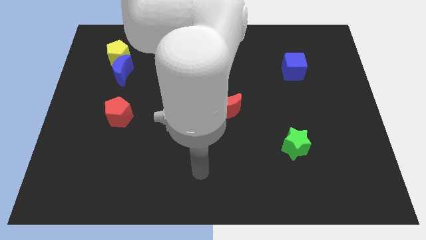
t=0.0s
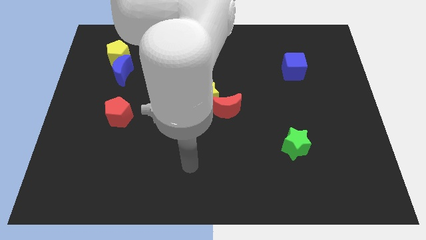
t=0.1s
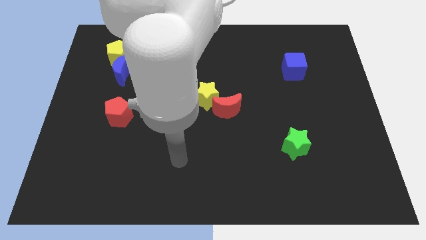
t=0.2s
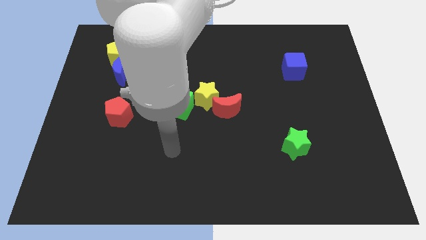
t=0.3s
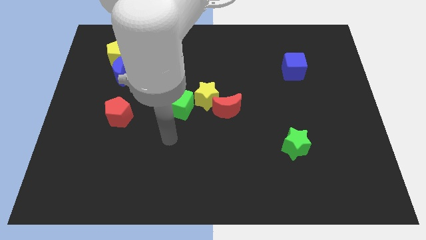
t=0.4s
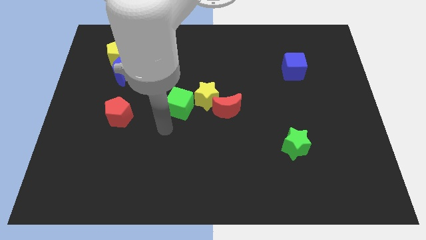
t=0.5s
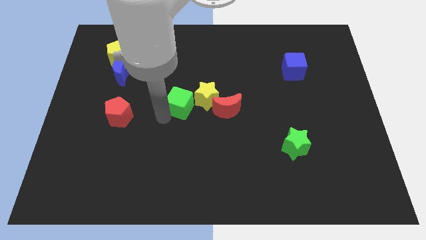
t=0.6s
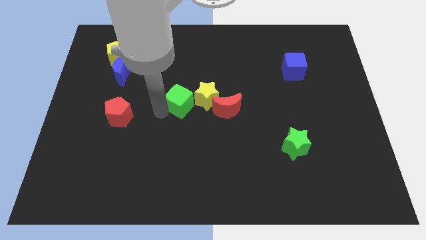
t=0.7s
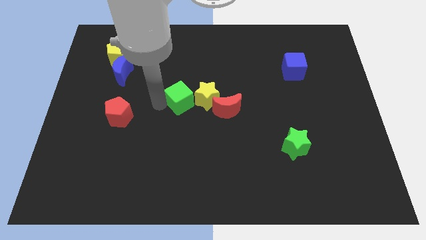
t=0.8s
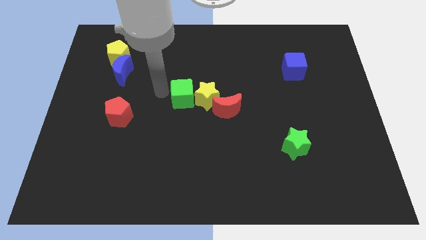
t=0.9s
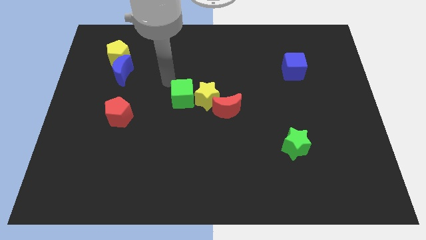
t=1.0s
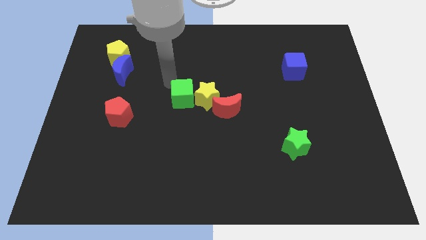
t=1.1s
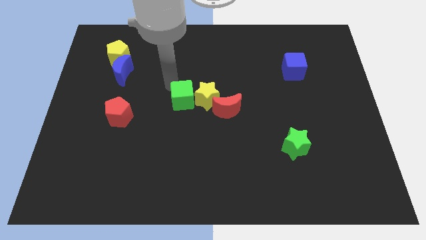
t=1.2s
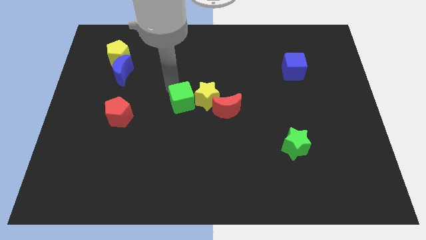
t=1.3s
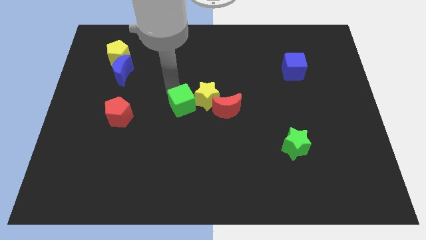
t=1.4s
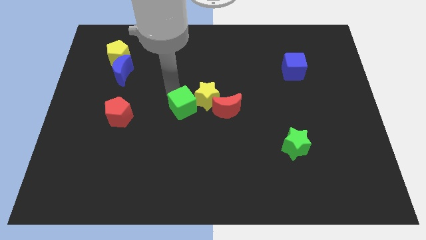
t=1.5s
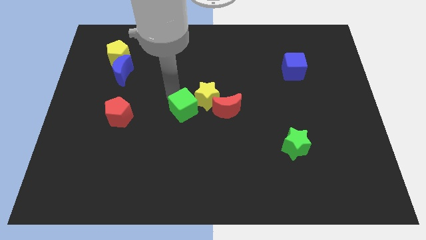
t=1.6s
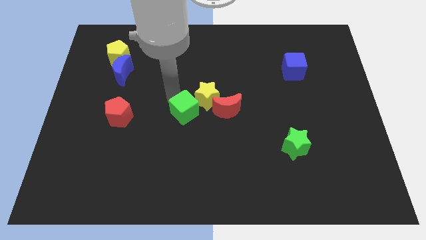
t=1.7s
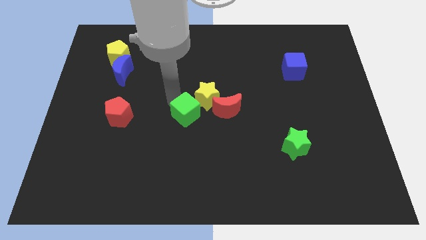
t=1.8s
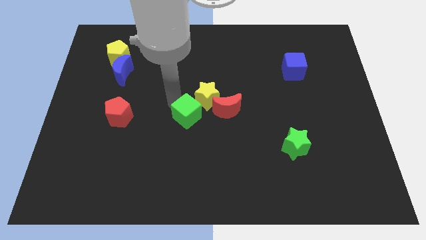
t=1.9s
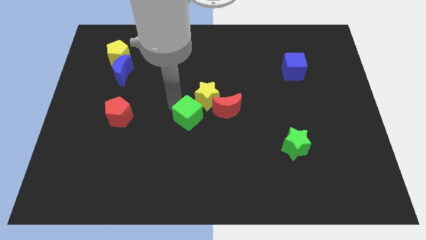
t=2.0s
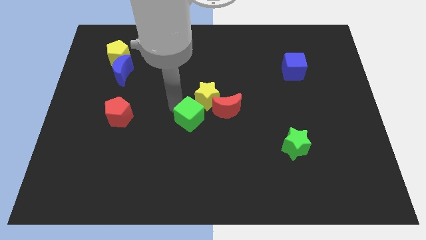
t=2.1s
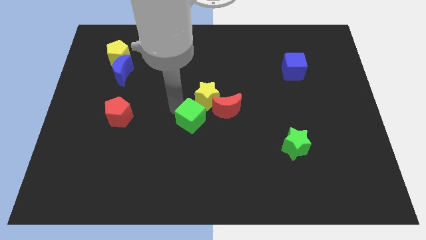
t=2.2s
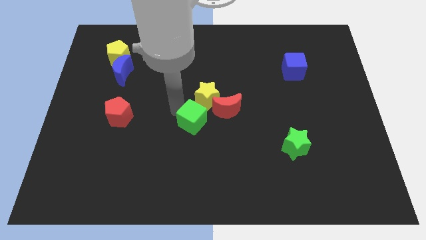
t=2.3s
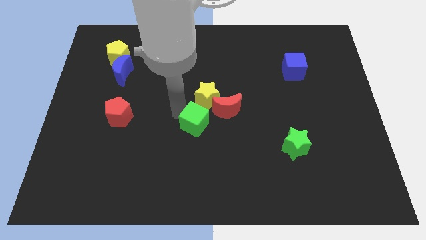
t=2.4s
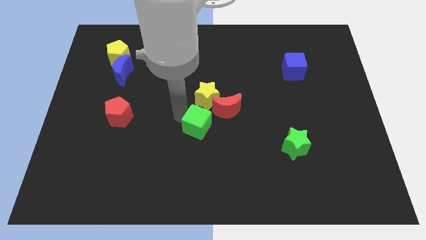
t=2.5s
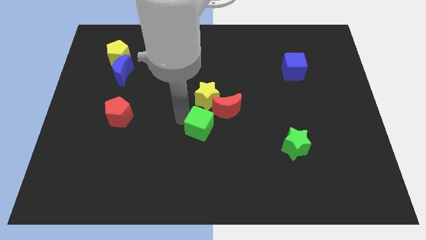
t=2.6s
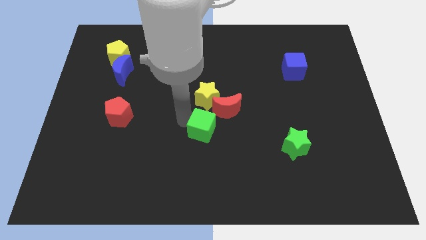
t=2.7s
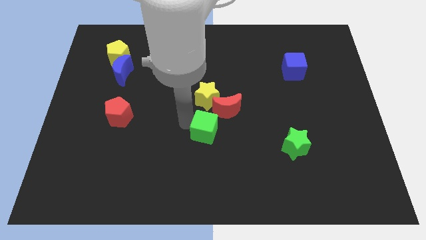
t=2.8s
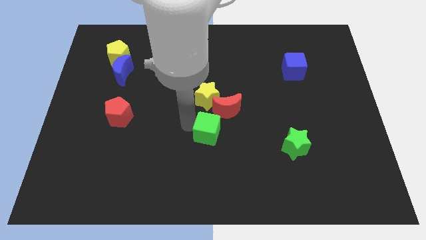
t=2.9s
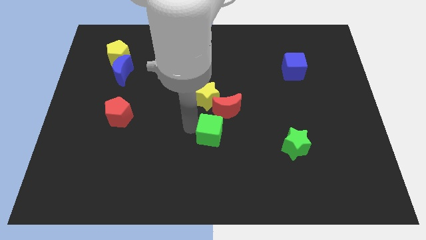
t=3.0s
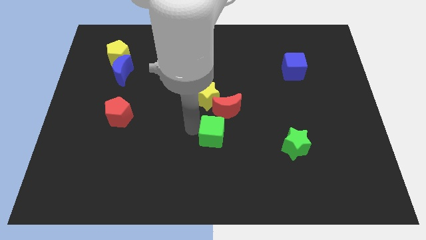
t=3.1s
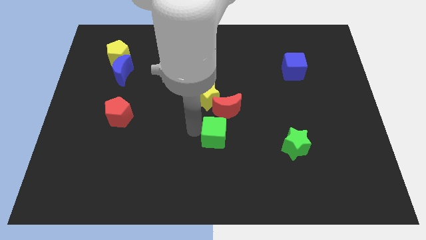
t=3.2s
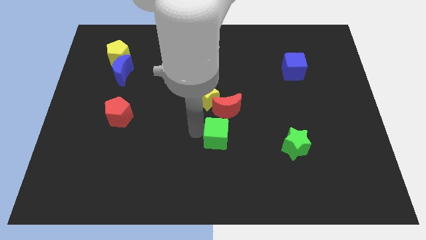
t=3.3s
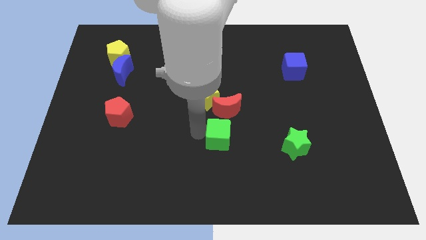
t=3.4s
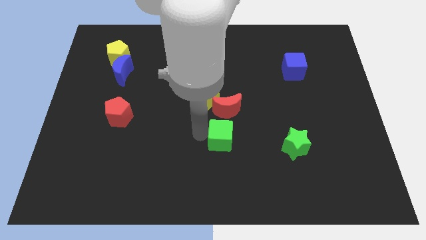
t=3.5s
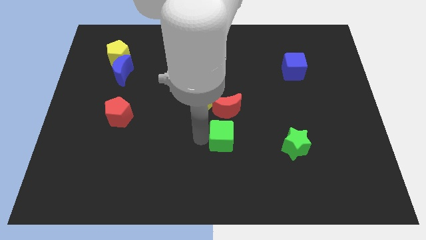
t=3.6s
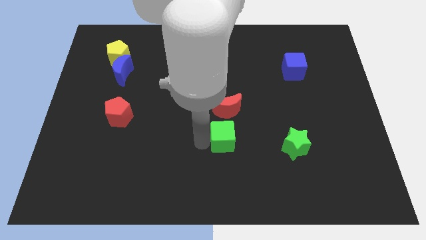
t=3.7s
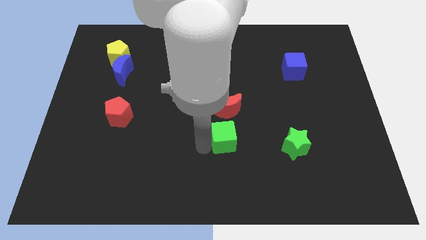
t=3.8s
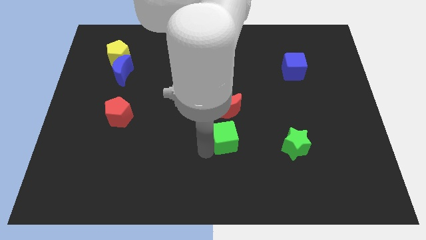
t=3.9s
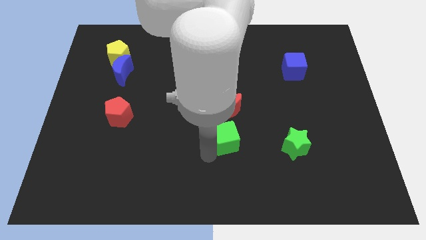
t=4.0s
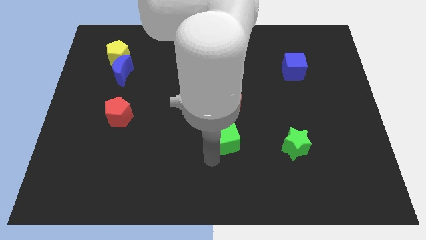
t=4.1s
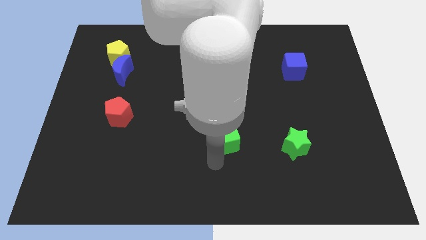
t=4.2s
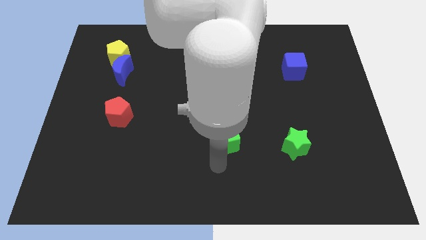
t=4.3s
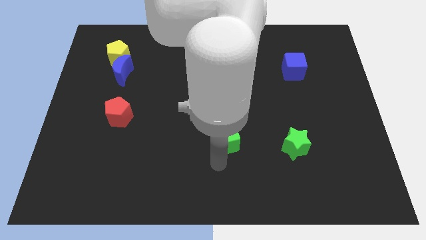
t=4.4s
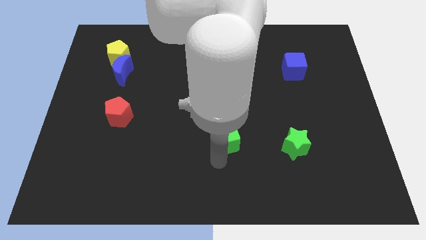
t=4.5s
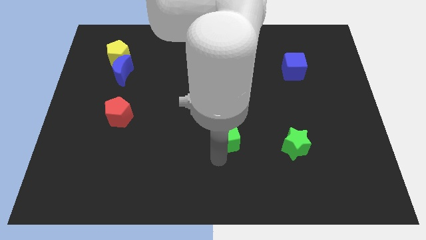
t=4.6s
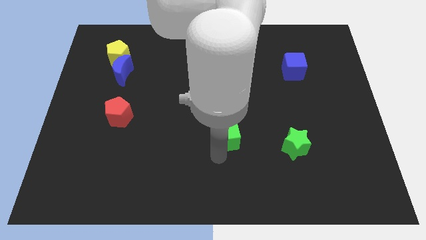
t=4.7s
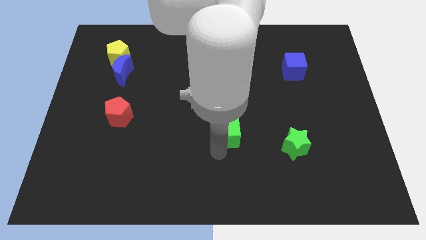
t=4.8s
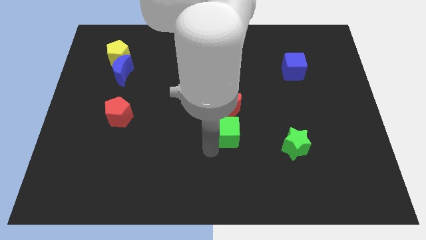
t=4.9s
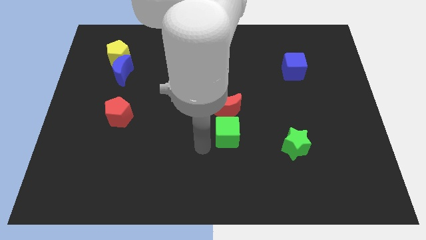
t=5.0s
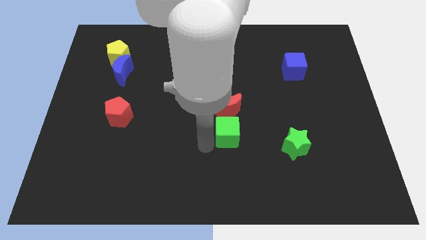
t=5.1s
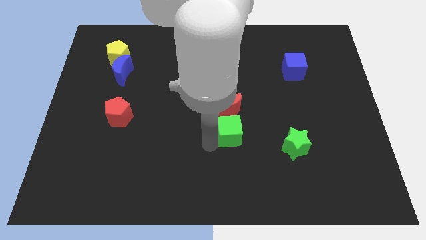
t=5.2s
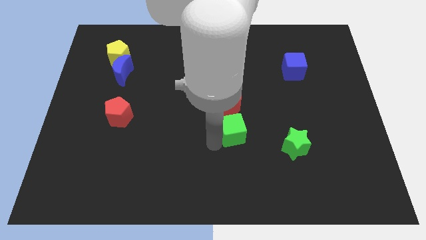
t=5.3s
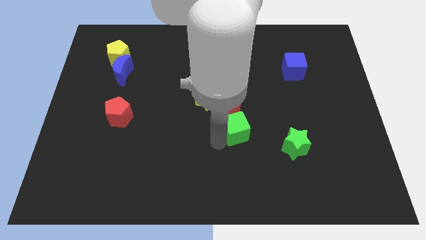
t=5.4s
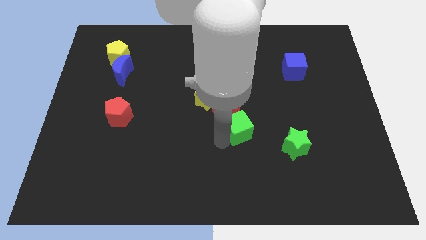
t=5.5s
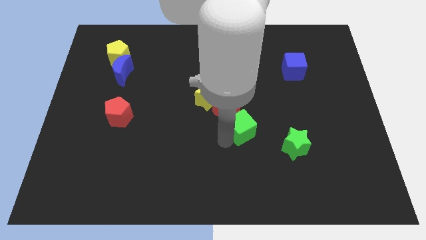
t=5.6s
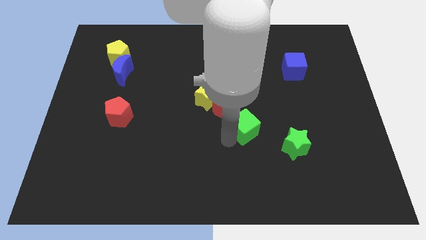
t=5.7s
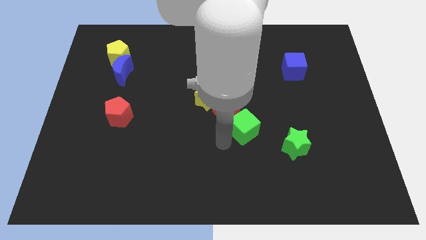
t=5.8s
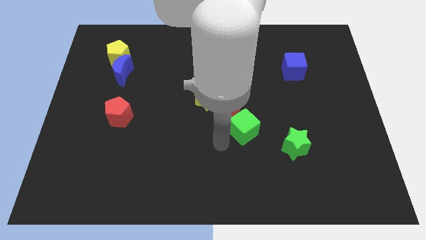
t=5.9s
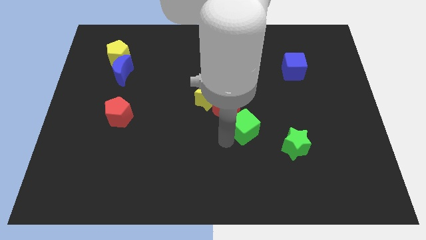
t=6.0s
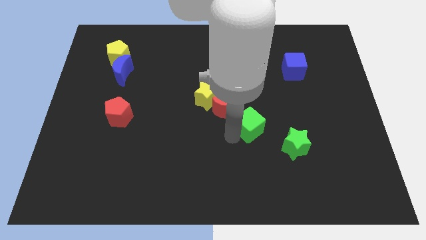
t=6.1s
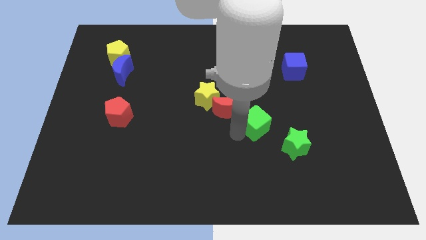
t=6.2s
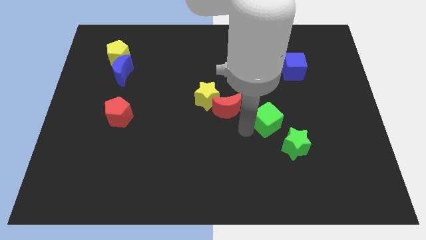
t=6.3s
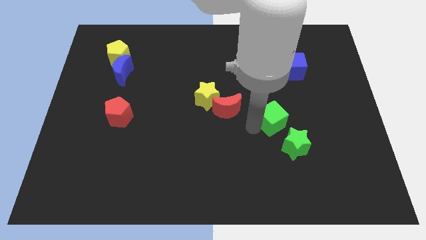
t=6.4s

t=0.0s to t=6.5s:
push the green cube right

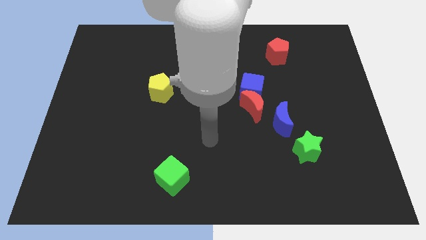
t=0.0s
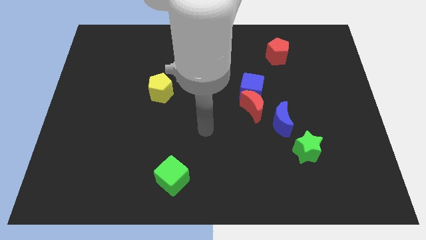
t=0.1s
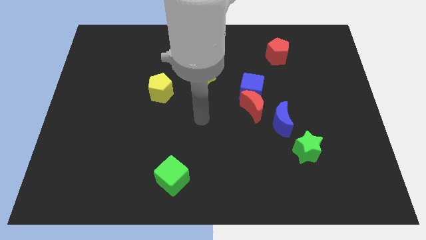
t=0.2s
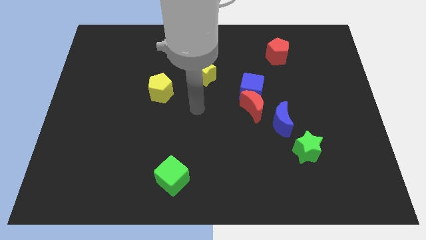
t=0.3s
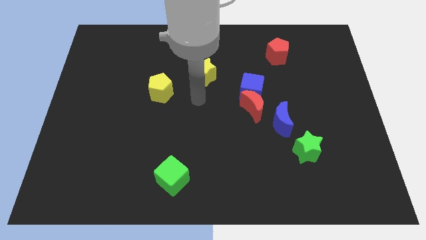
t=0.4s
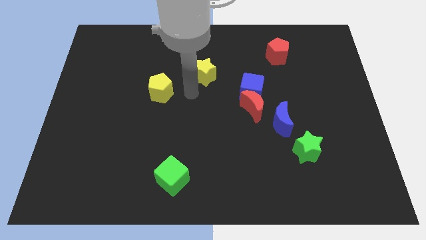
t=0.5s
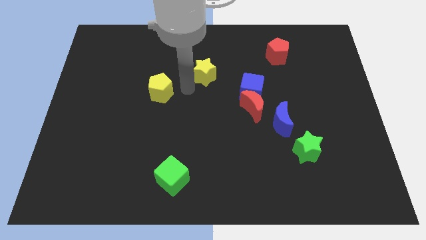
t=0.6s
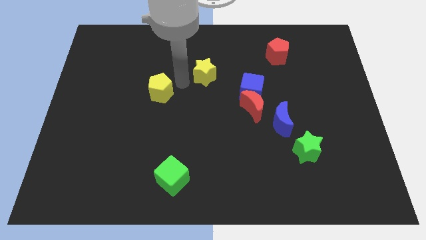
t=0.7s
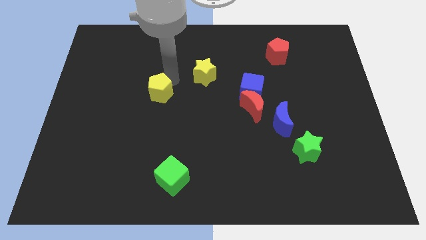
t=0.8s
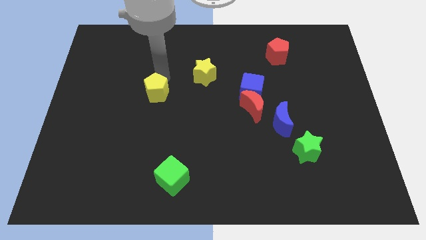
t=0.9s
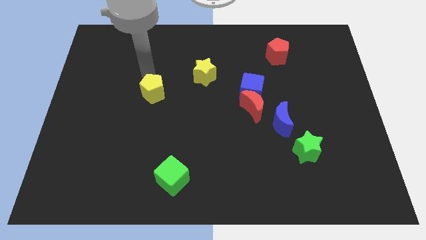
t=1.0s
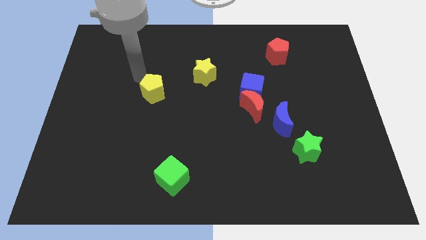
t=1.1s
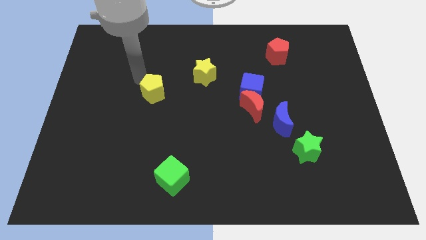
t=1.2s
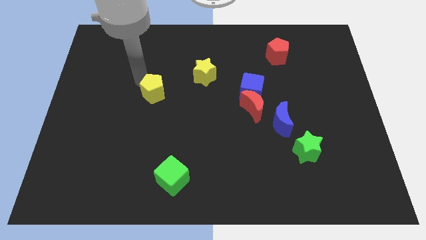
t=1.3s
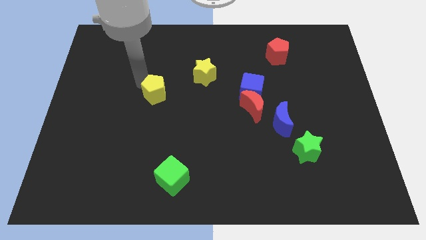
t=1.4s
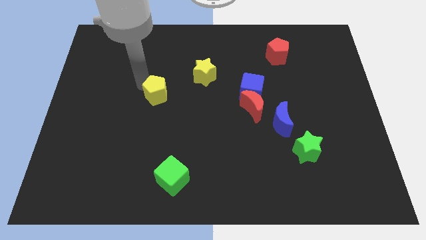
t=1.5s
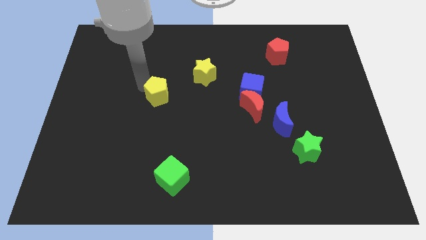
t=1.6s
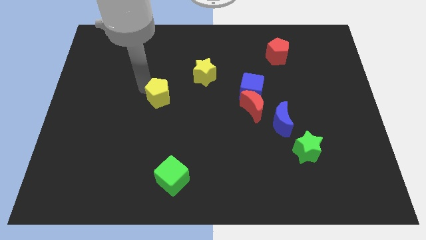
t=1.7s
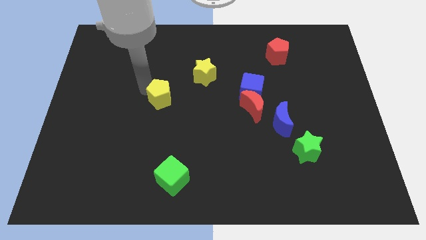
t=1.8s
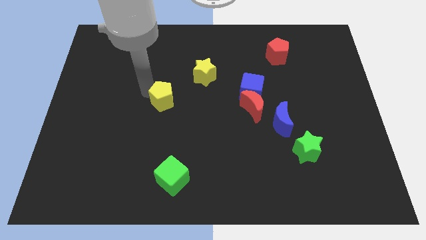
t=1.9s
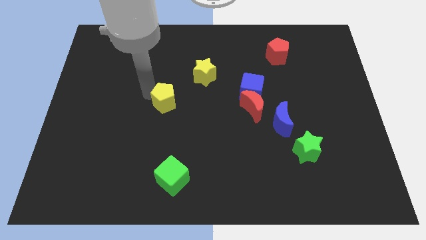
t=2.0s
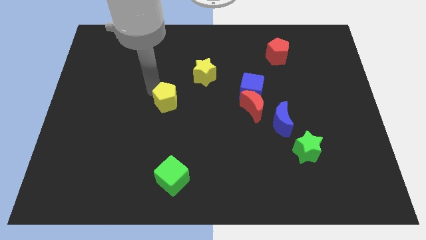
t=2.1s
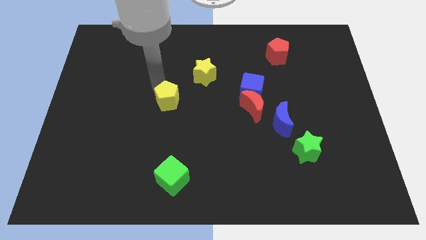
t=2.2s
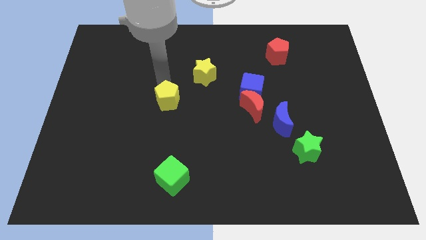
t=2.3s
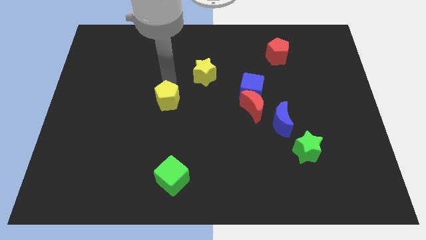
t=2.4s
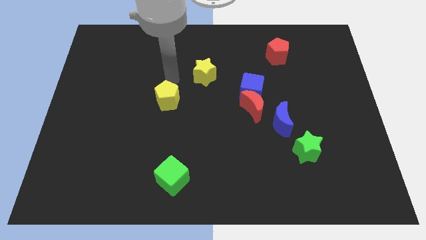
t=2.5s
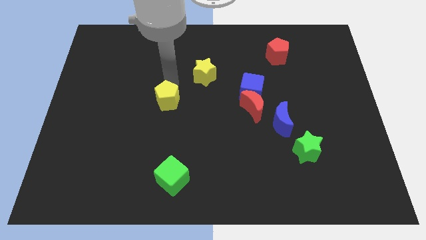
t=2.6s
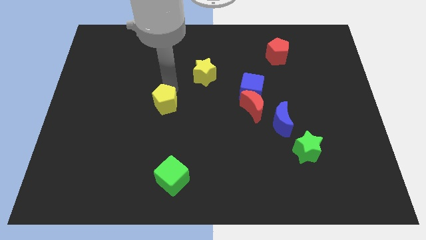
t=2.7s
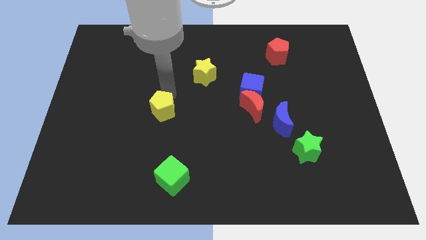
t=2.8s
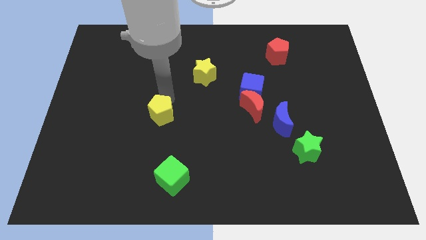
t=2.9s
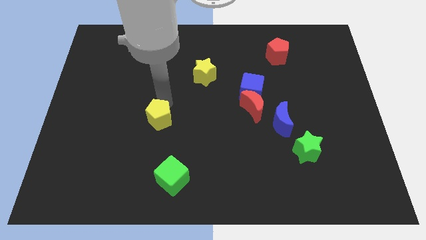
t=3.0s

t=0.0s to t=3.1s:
push the yellow pentagon a bit downwards
